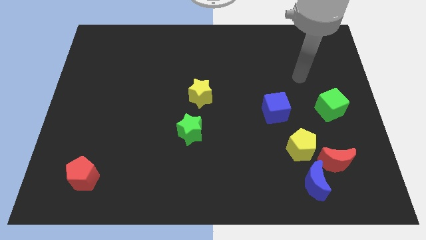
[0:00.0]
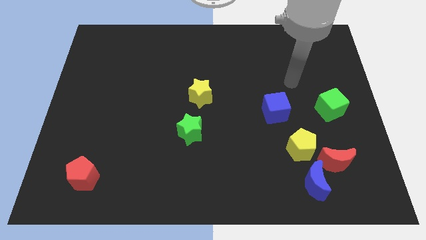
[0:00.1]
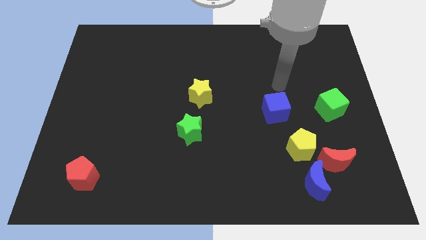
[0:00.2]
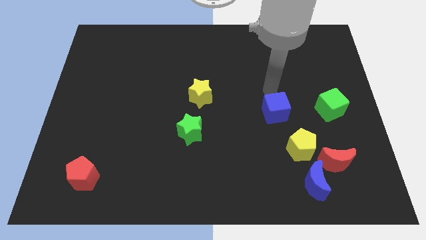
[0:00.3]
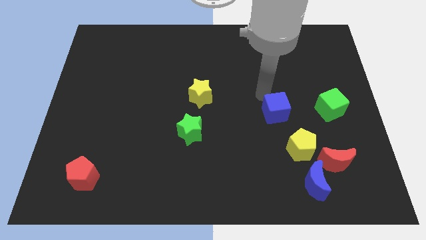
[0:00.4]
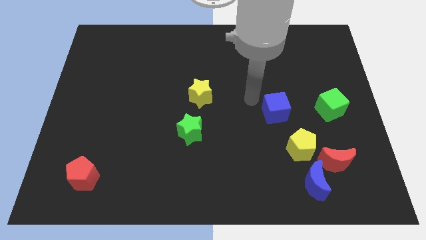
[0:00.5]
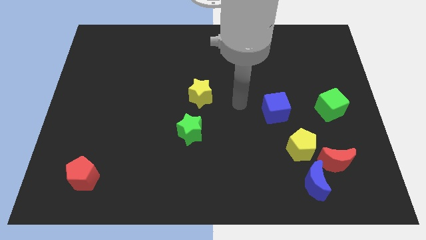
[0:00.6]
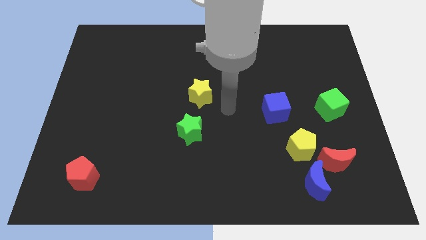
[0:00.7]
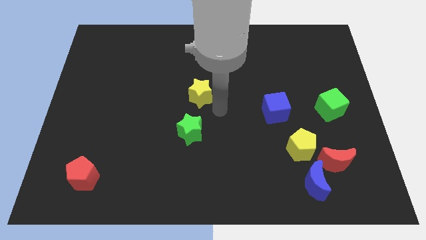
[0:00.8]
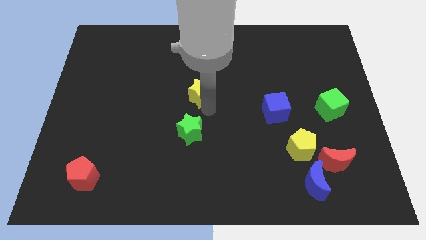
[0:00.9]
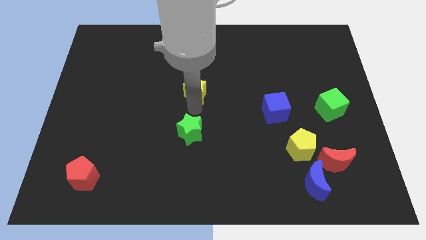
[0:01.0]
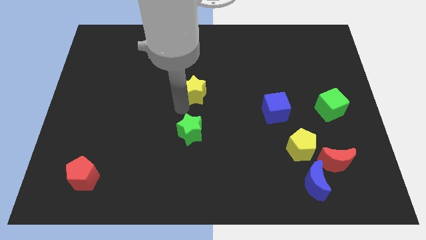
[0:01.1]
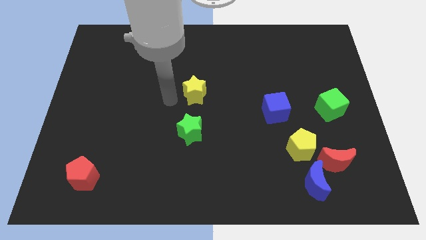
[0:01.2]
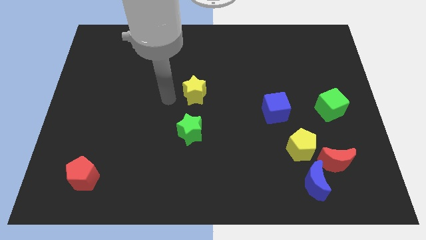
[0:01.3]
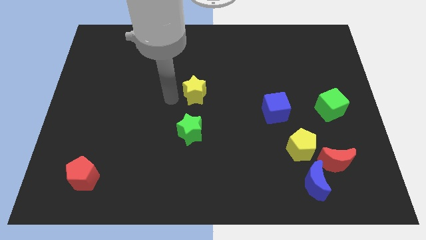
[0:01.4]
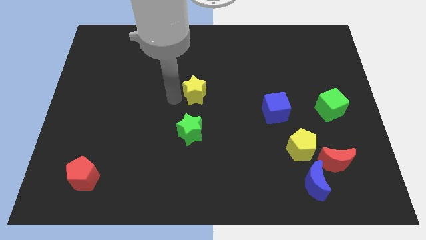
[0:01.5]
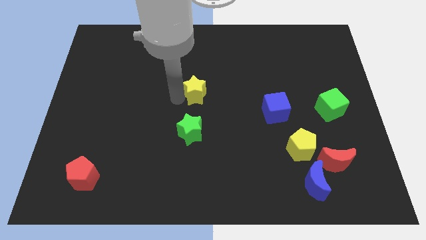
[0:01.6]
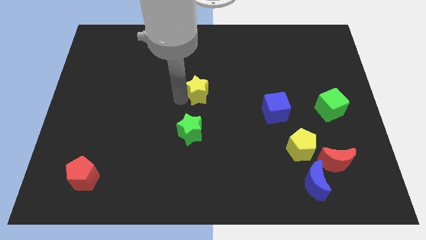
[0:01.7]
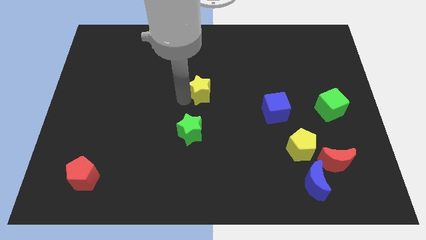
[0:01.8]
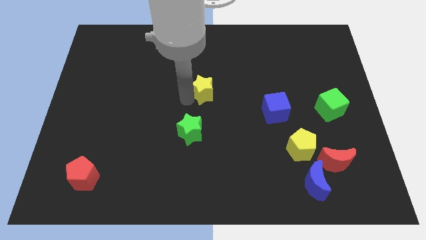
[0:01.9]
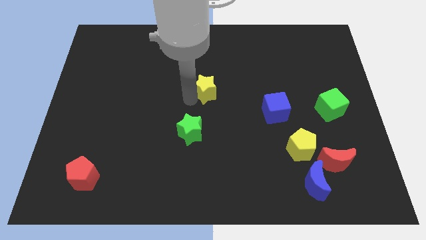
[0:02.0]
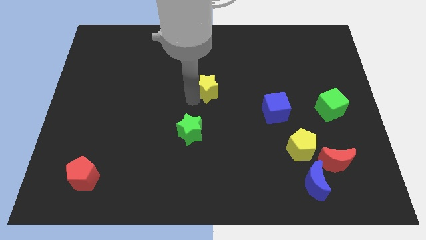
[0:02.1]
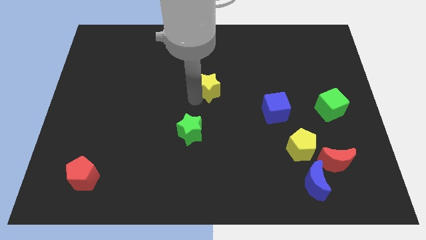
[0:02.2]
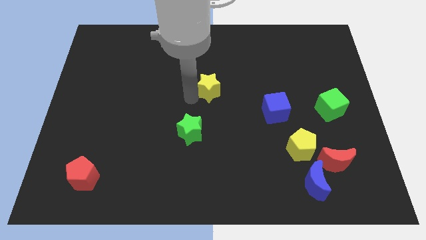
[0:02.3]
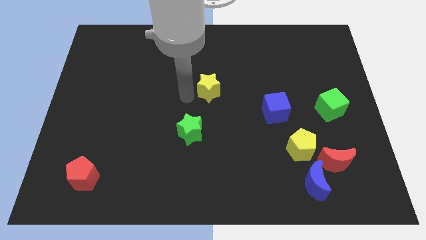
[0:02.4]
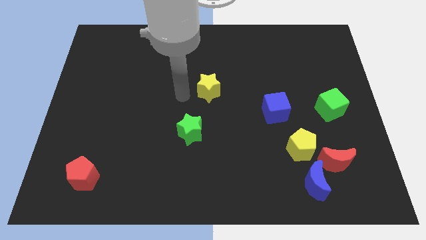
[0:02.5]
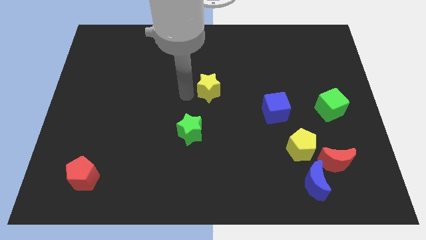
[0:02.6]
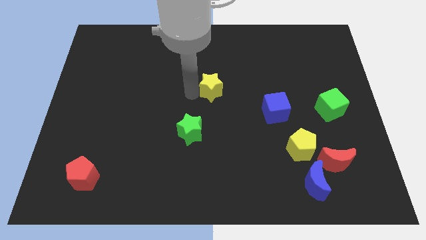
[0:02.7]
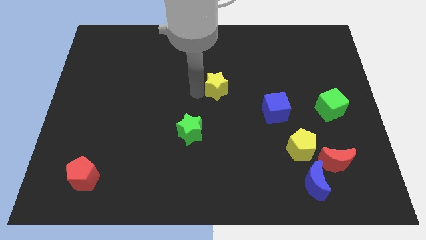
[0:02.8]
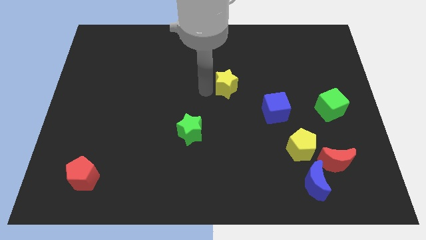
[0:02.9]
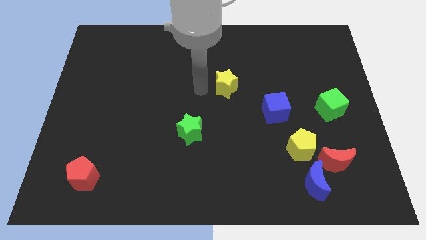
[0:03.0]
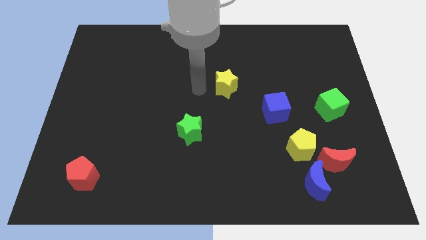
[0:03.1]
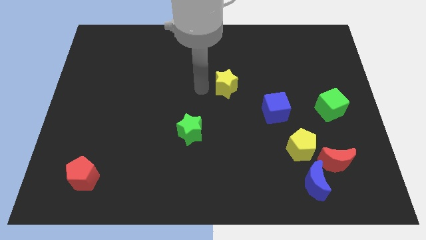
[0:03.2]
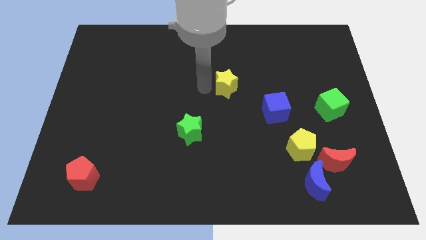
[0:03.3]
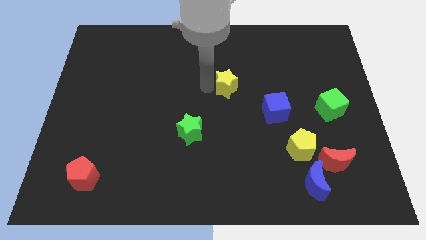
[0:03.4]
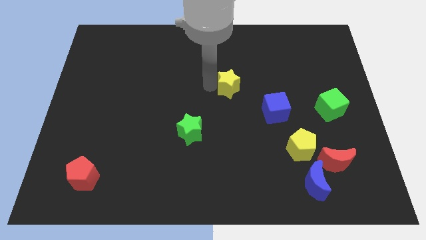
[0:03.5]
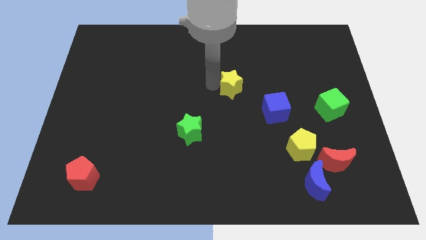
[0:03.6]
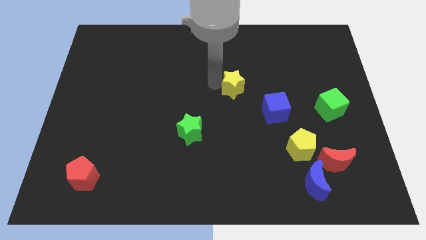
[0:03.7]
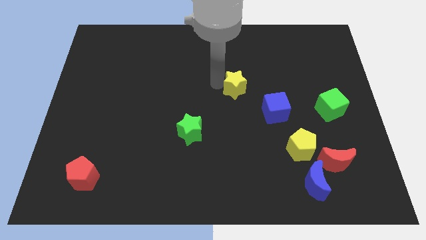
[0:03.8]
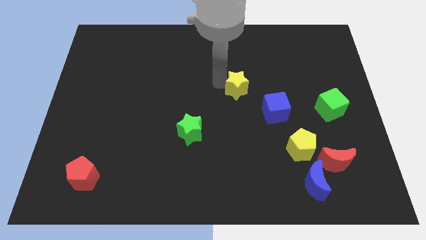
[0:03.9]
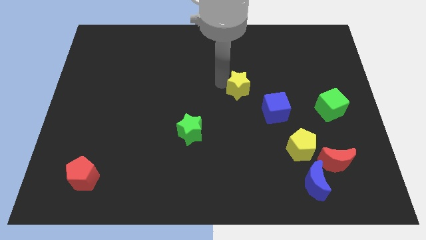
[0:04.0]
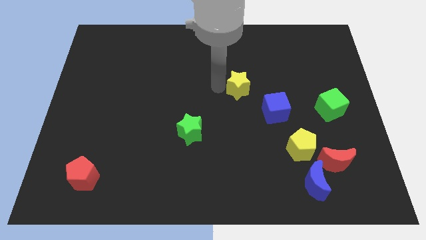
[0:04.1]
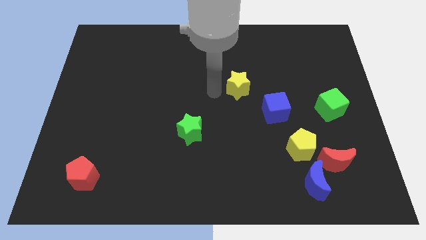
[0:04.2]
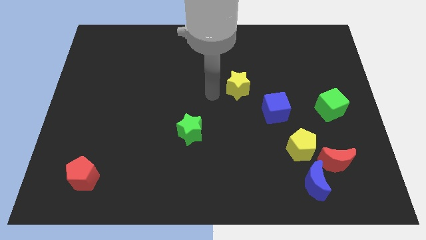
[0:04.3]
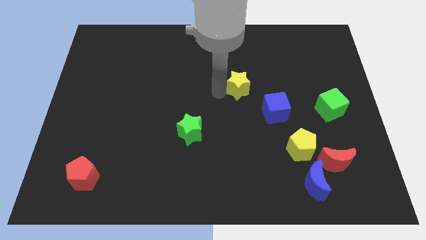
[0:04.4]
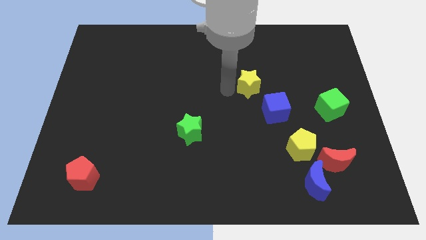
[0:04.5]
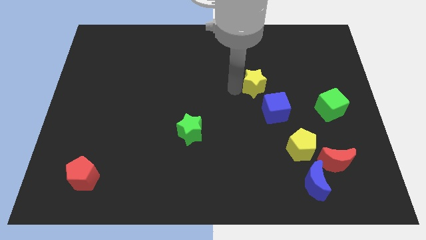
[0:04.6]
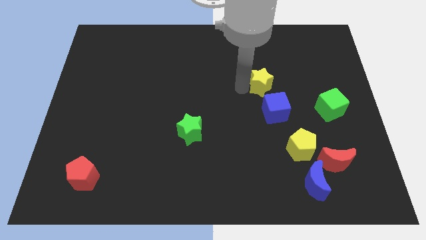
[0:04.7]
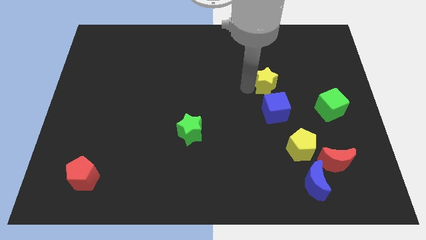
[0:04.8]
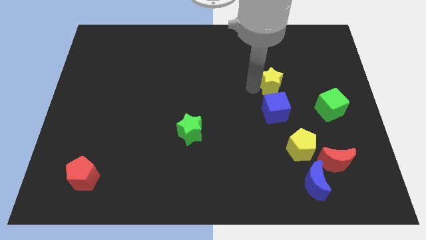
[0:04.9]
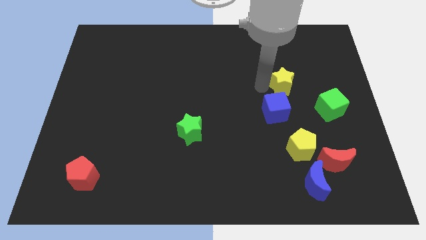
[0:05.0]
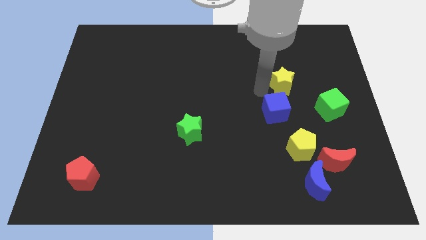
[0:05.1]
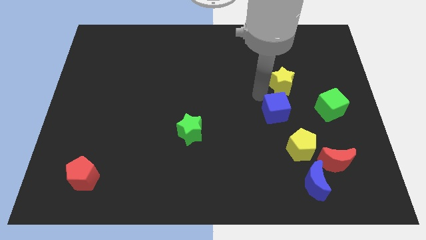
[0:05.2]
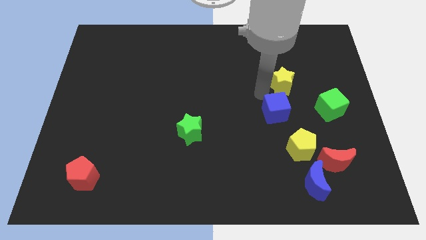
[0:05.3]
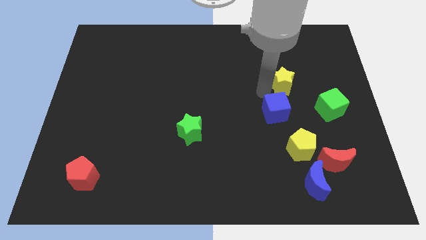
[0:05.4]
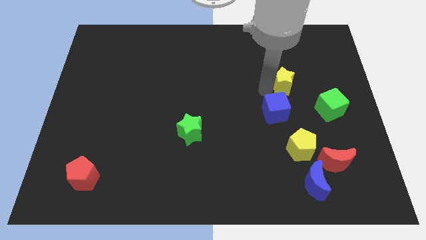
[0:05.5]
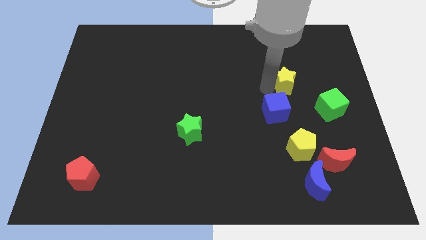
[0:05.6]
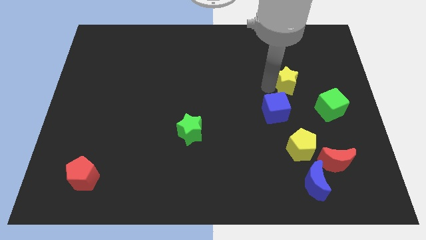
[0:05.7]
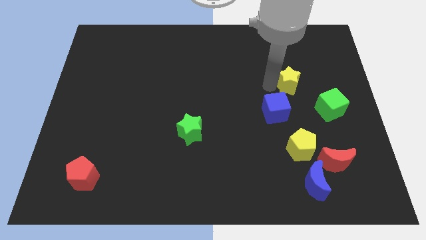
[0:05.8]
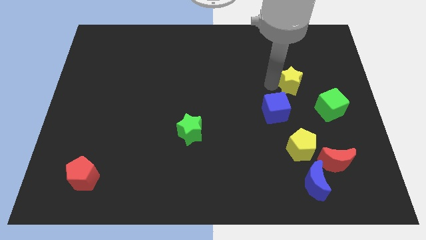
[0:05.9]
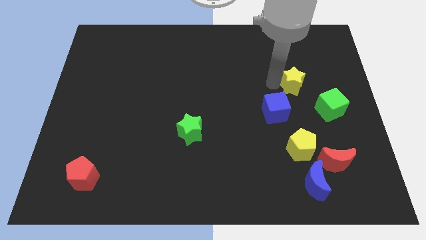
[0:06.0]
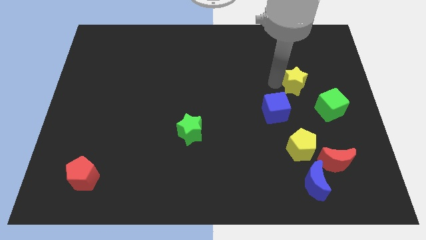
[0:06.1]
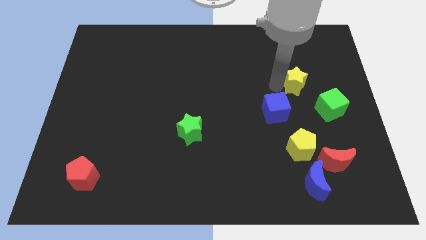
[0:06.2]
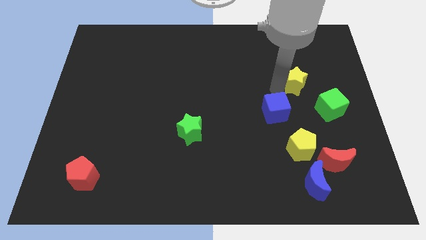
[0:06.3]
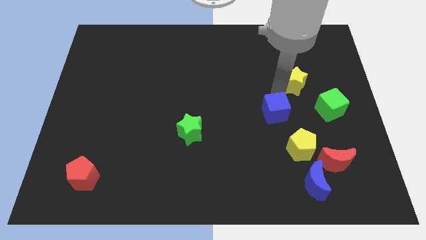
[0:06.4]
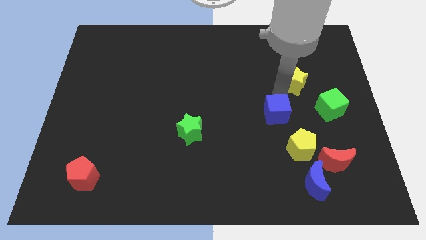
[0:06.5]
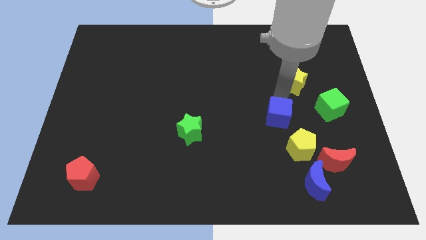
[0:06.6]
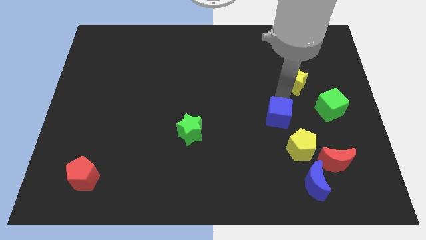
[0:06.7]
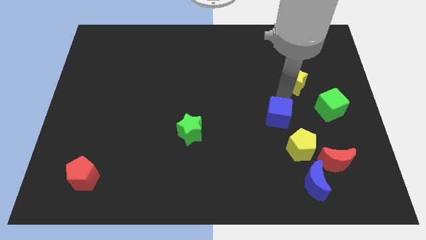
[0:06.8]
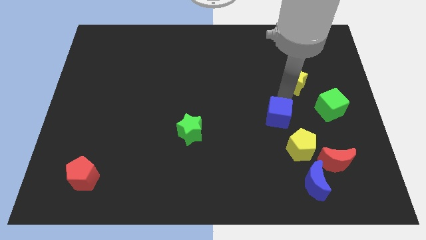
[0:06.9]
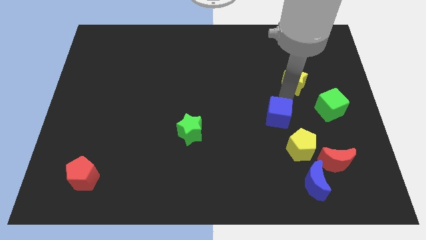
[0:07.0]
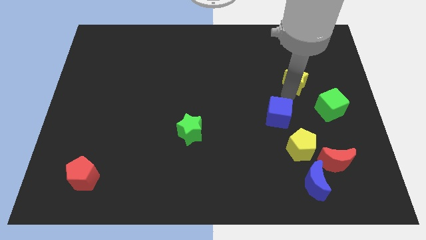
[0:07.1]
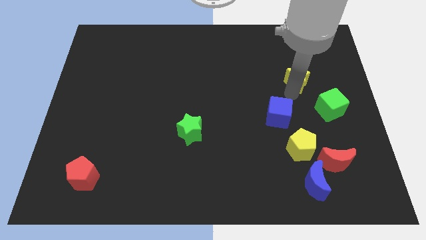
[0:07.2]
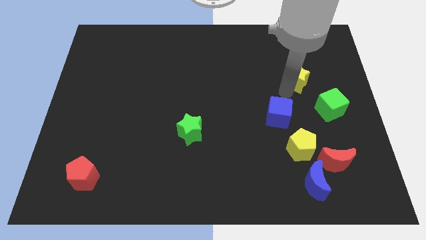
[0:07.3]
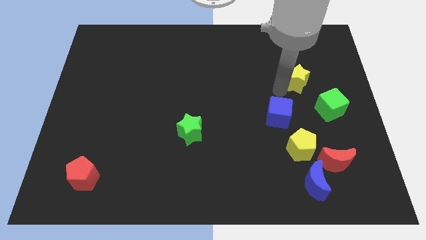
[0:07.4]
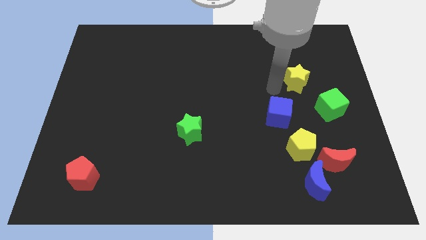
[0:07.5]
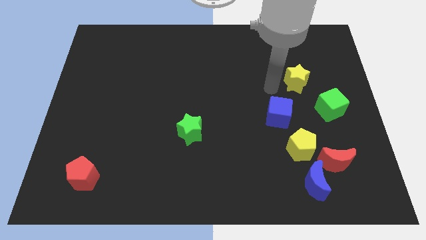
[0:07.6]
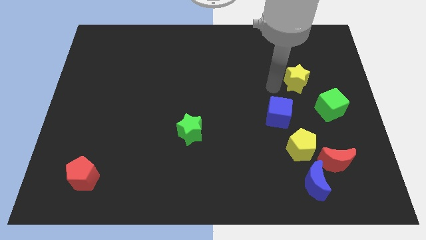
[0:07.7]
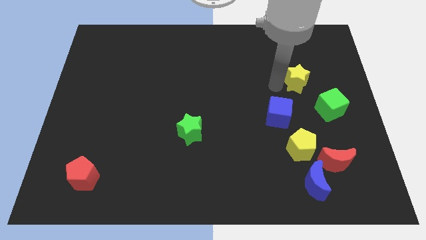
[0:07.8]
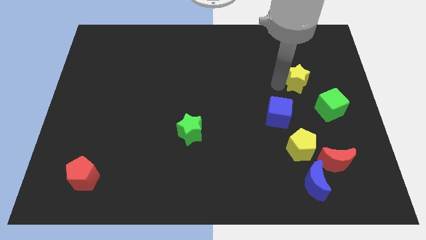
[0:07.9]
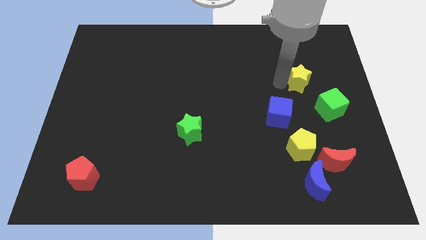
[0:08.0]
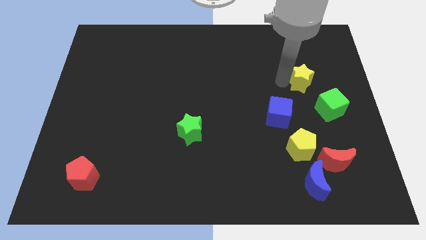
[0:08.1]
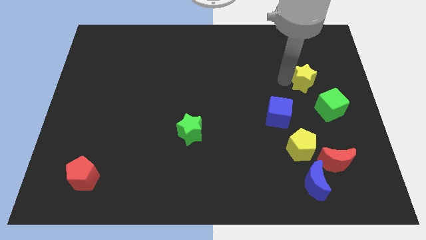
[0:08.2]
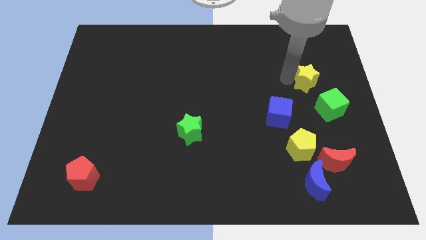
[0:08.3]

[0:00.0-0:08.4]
move the yellow star to the top of the green cube
